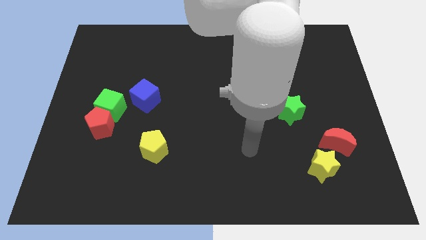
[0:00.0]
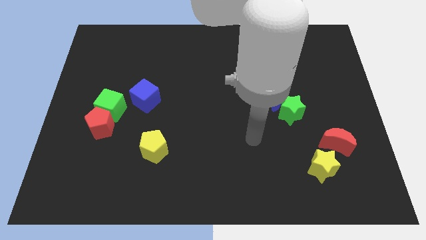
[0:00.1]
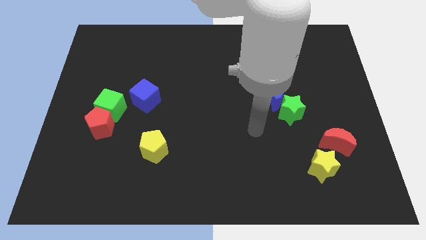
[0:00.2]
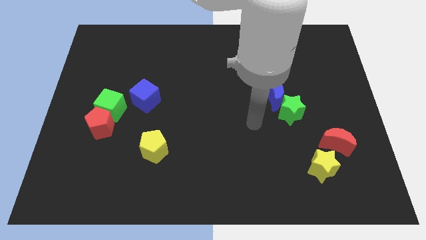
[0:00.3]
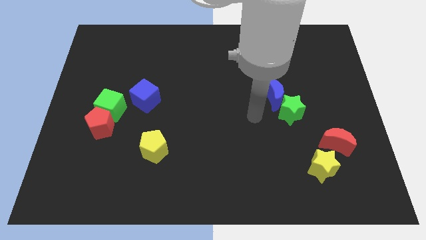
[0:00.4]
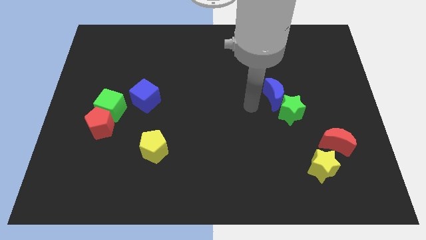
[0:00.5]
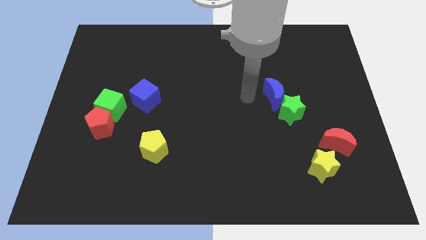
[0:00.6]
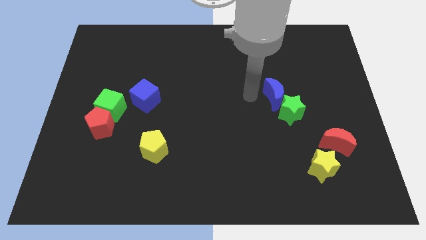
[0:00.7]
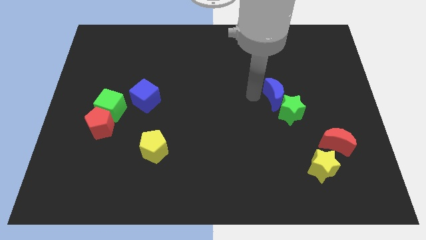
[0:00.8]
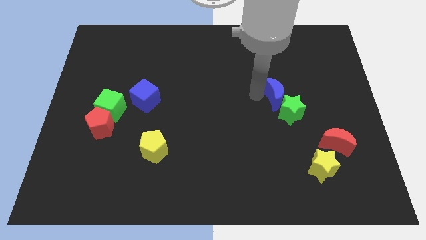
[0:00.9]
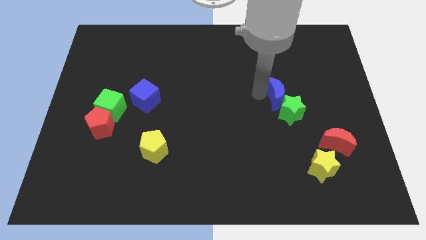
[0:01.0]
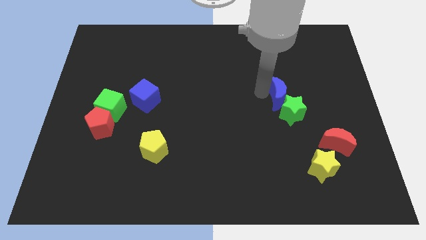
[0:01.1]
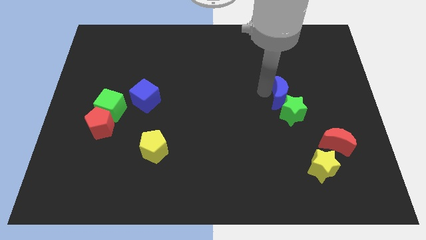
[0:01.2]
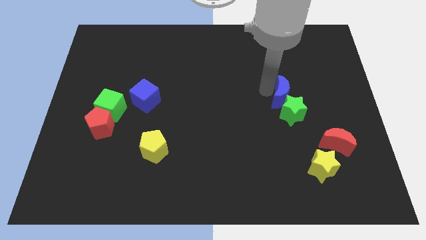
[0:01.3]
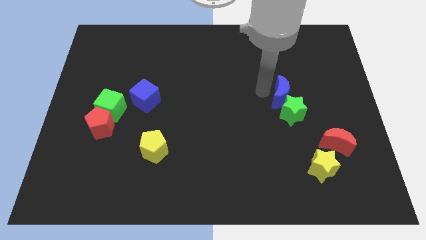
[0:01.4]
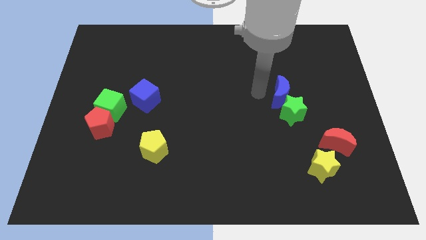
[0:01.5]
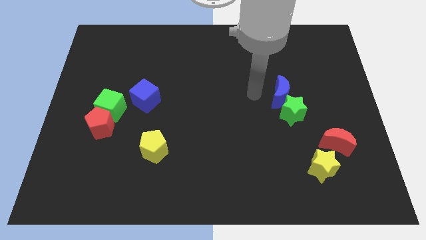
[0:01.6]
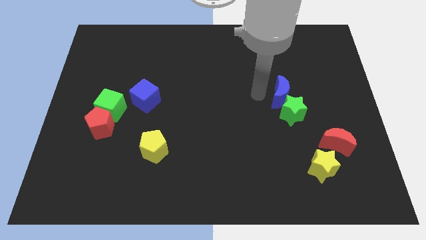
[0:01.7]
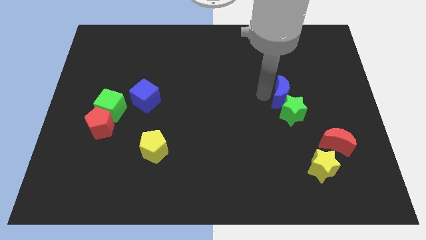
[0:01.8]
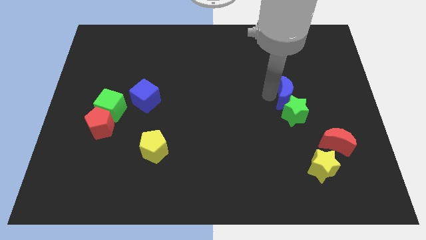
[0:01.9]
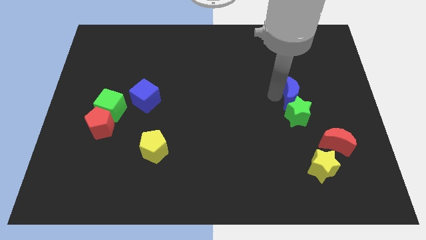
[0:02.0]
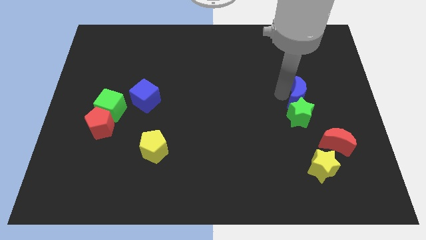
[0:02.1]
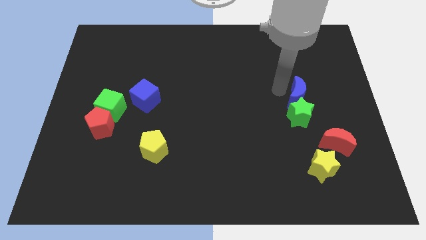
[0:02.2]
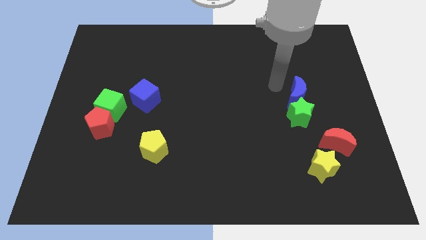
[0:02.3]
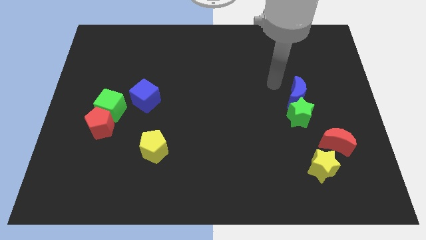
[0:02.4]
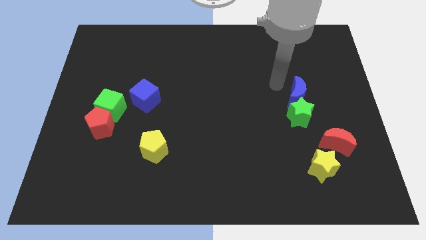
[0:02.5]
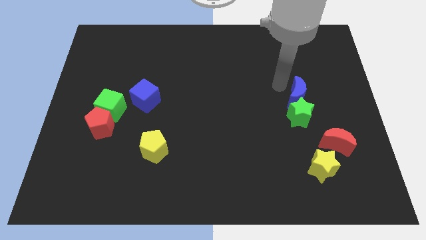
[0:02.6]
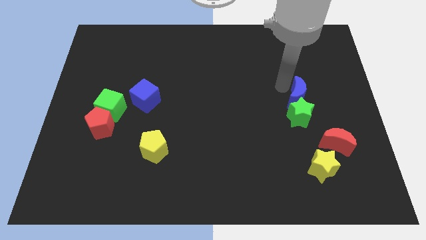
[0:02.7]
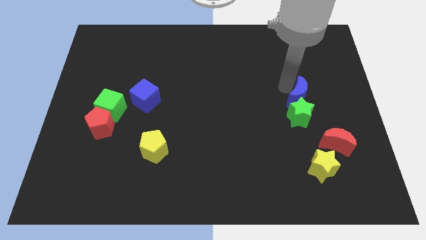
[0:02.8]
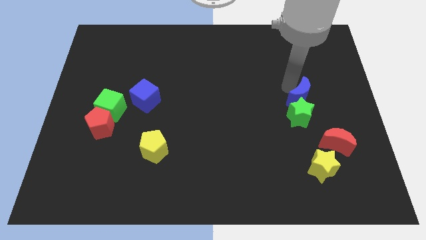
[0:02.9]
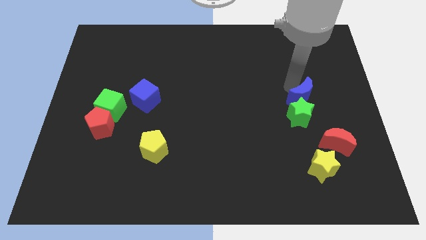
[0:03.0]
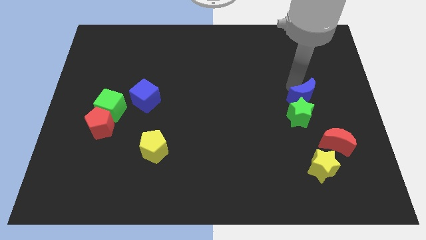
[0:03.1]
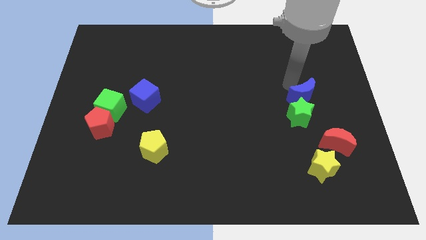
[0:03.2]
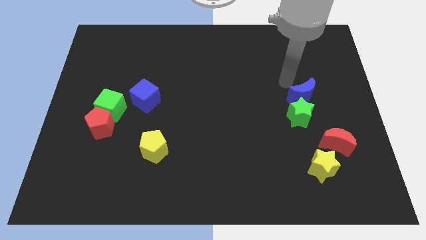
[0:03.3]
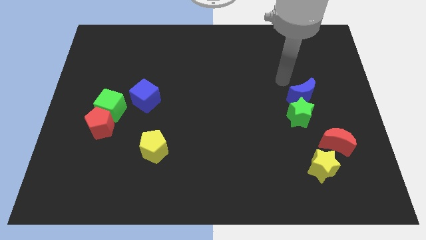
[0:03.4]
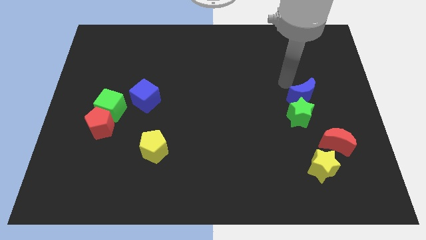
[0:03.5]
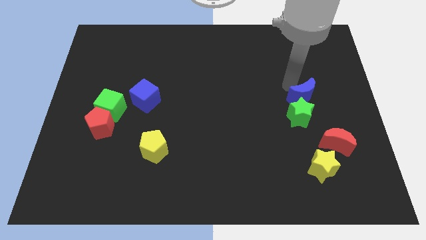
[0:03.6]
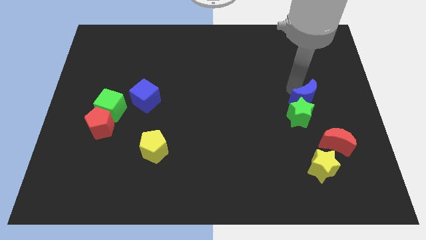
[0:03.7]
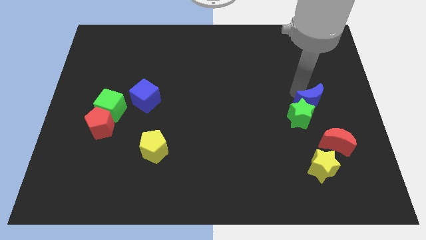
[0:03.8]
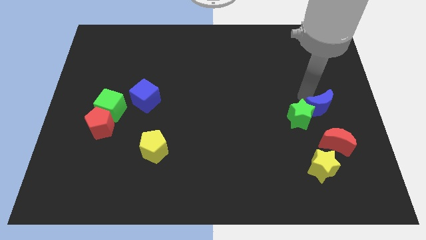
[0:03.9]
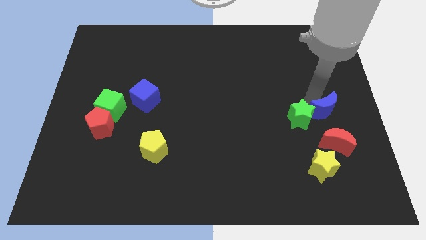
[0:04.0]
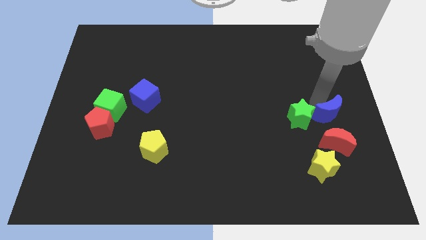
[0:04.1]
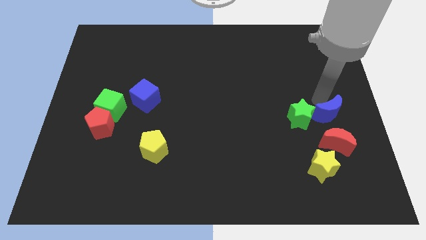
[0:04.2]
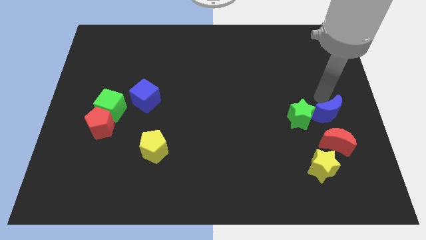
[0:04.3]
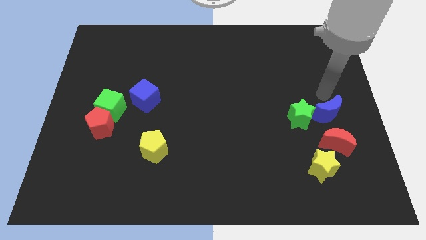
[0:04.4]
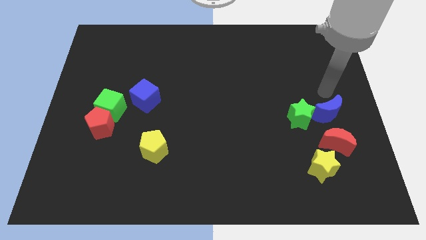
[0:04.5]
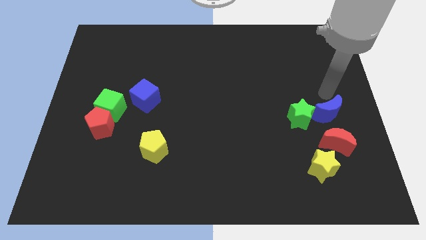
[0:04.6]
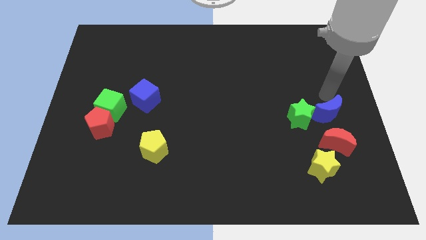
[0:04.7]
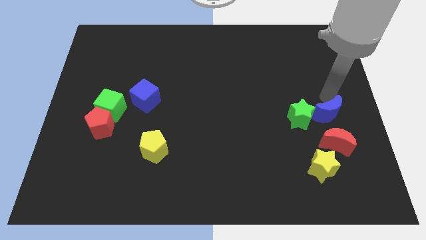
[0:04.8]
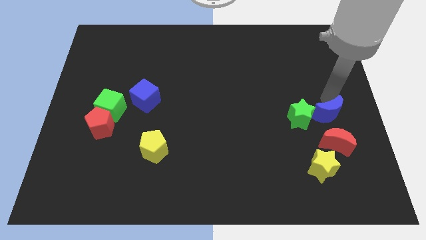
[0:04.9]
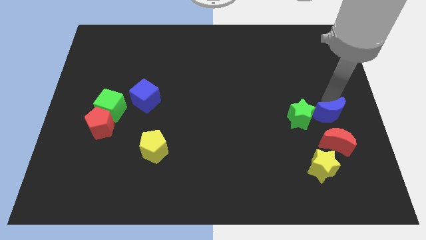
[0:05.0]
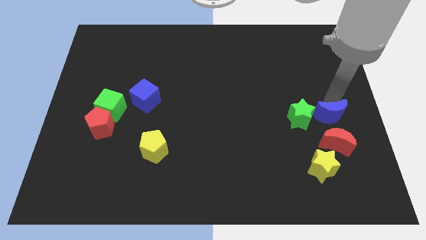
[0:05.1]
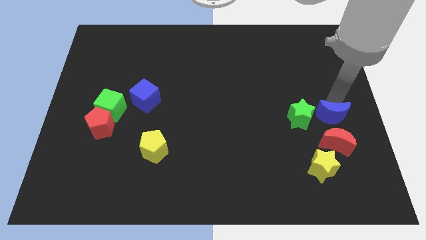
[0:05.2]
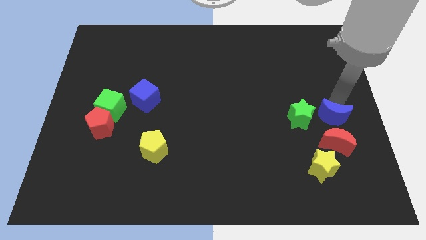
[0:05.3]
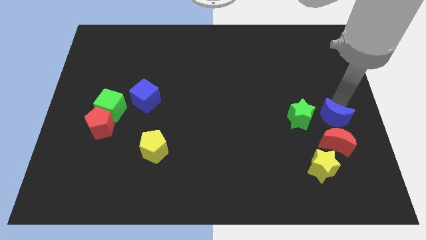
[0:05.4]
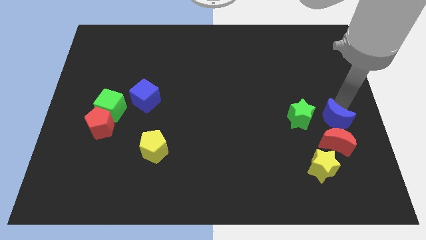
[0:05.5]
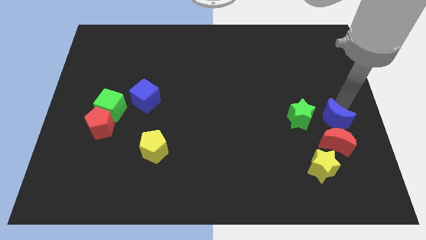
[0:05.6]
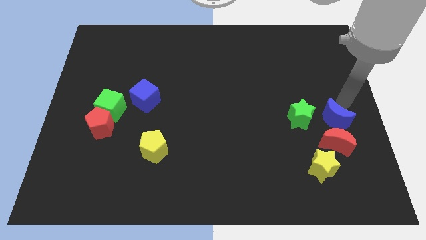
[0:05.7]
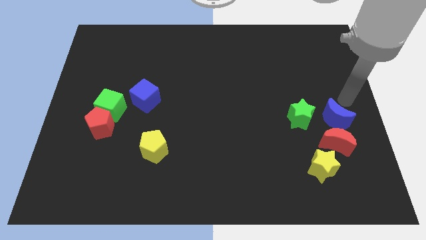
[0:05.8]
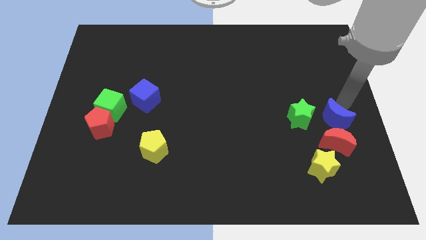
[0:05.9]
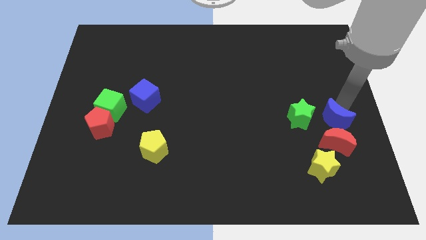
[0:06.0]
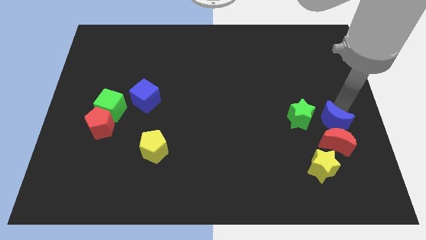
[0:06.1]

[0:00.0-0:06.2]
push the blue moon to the red moon
